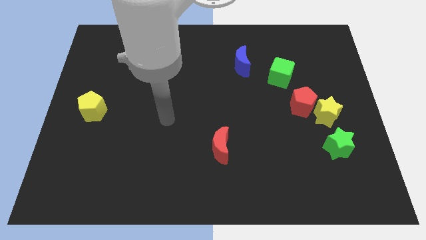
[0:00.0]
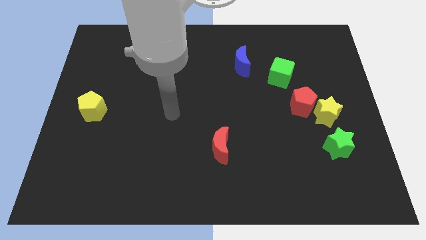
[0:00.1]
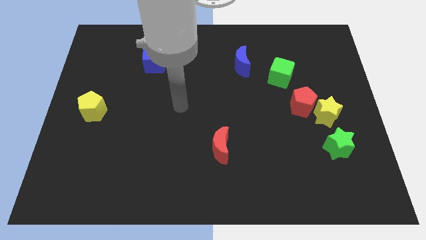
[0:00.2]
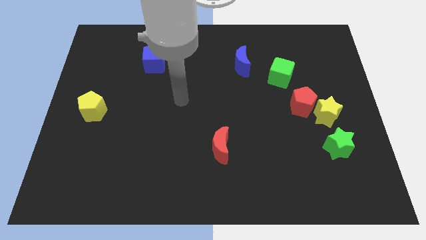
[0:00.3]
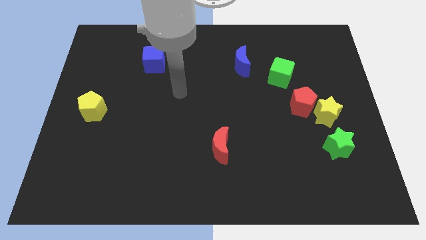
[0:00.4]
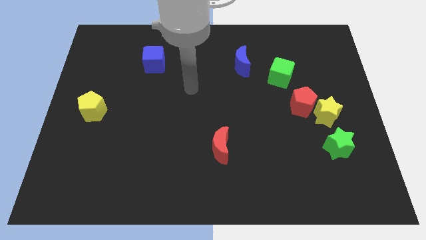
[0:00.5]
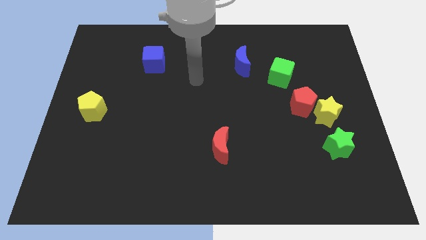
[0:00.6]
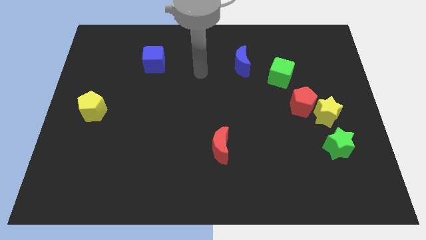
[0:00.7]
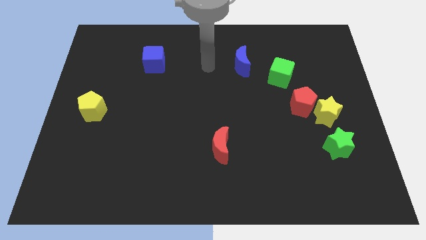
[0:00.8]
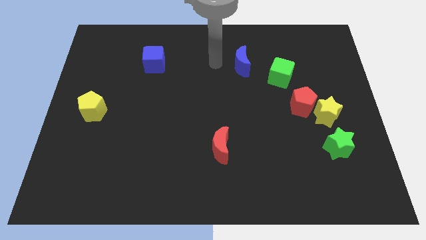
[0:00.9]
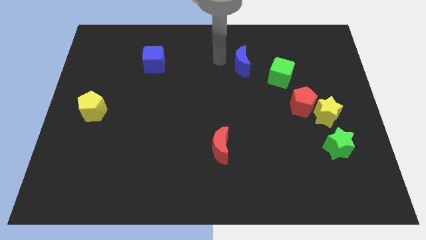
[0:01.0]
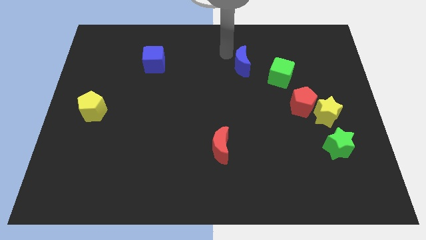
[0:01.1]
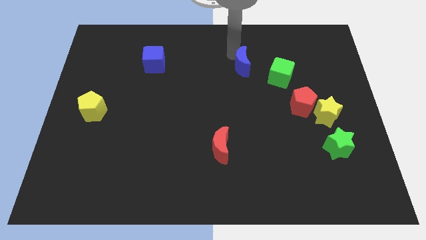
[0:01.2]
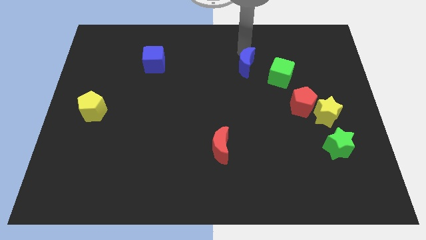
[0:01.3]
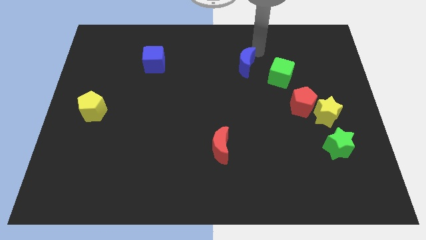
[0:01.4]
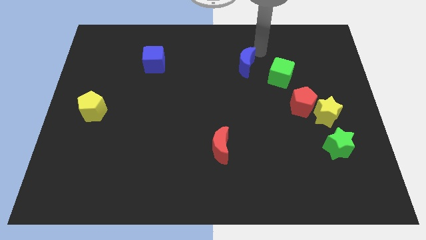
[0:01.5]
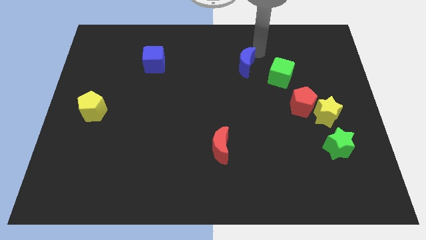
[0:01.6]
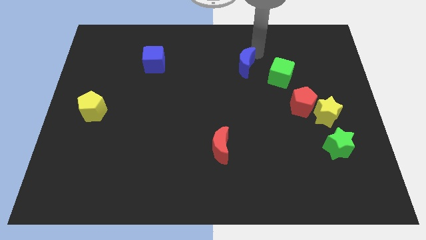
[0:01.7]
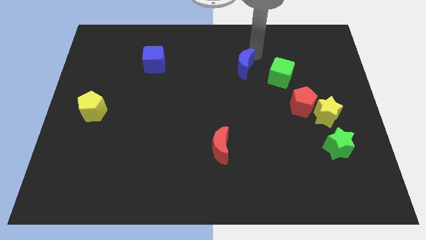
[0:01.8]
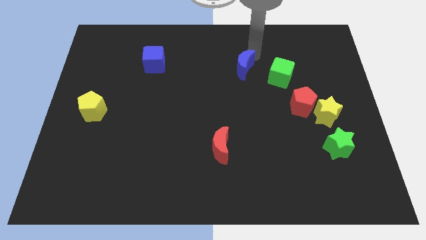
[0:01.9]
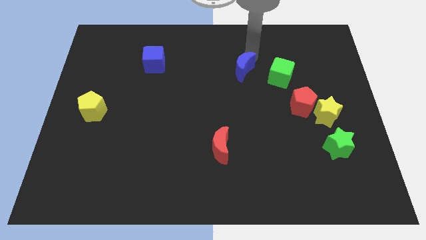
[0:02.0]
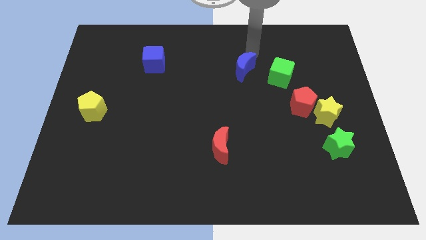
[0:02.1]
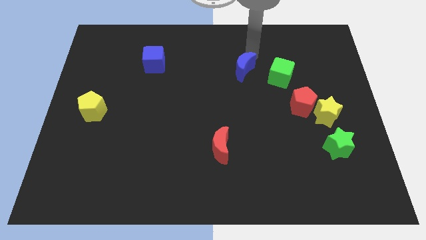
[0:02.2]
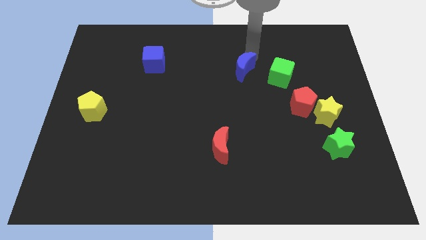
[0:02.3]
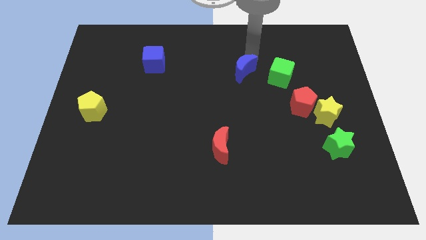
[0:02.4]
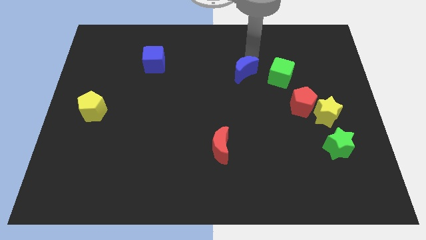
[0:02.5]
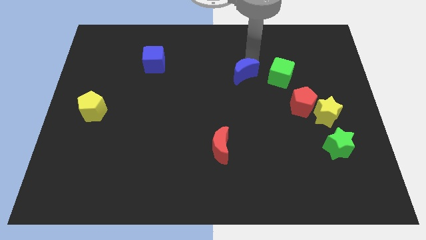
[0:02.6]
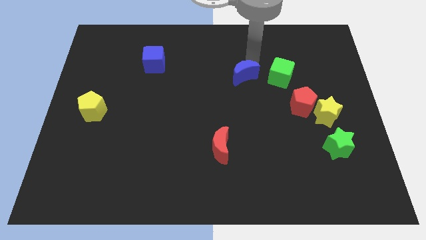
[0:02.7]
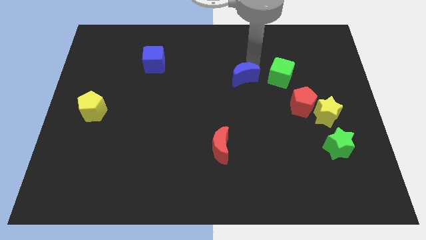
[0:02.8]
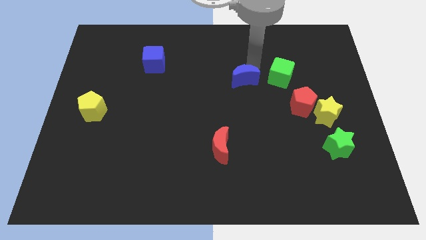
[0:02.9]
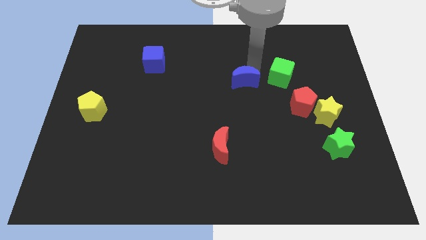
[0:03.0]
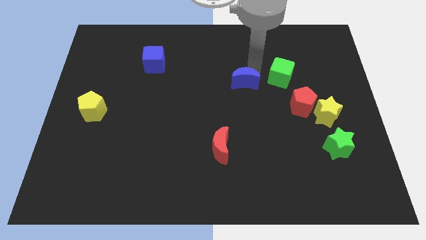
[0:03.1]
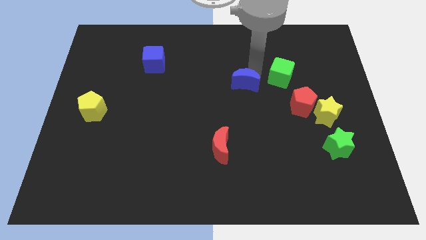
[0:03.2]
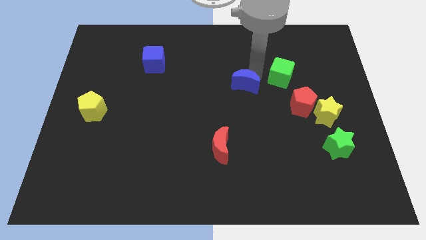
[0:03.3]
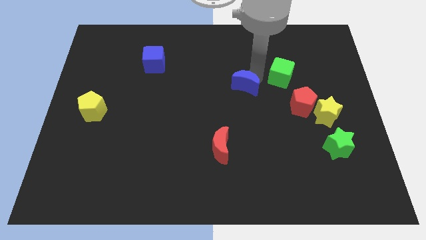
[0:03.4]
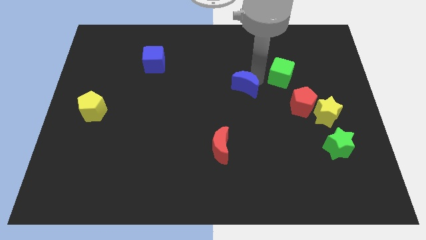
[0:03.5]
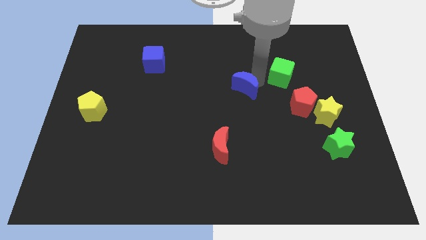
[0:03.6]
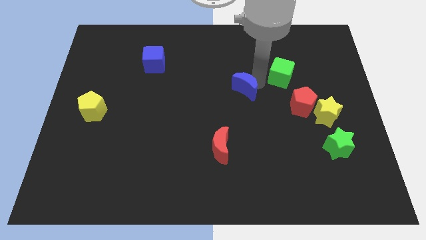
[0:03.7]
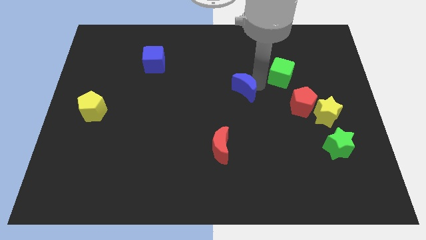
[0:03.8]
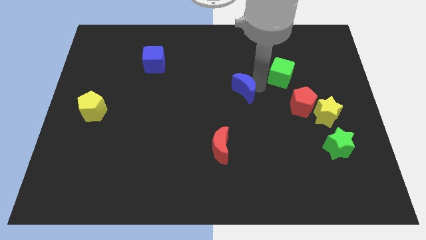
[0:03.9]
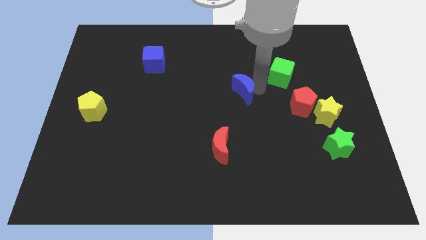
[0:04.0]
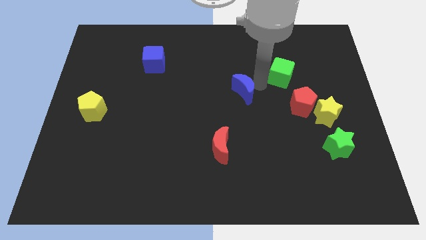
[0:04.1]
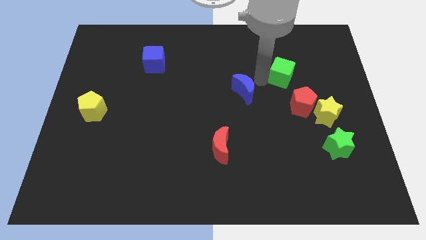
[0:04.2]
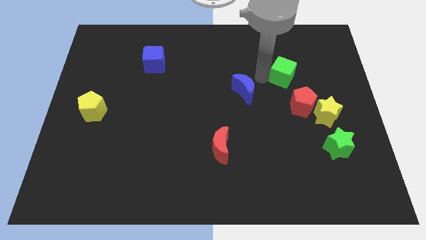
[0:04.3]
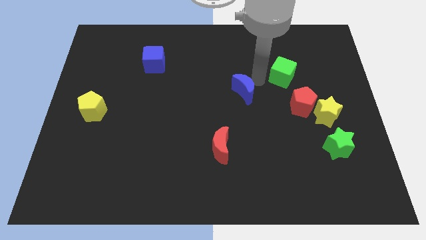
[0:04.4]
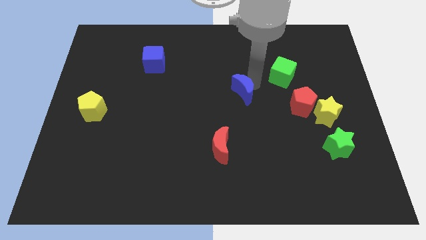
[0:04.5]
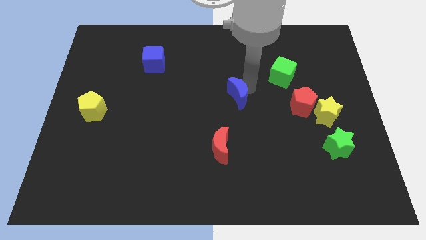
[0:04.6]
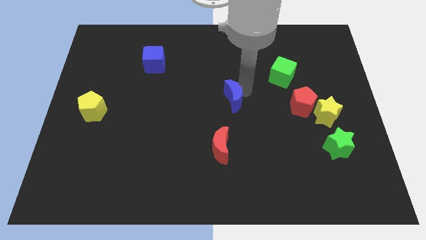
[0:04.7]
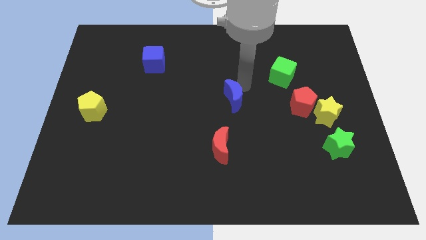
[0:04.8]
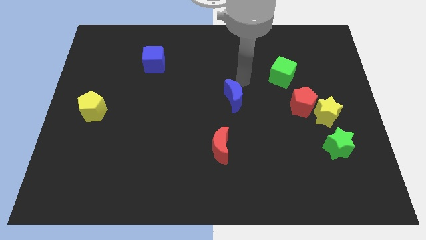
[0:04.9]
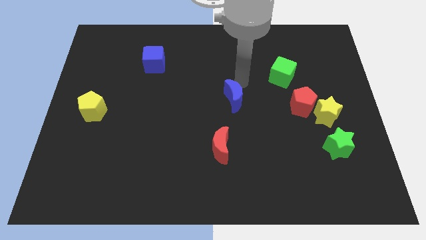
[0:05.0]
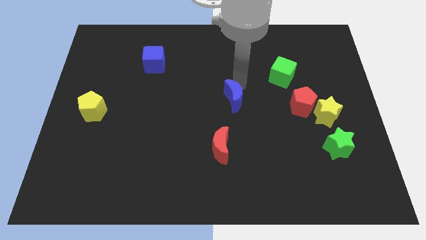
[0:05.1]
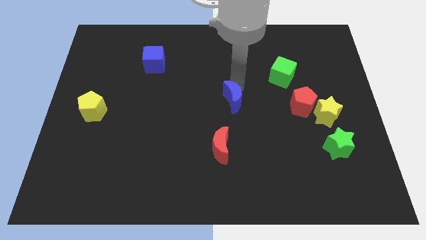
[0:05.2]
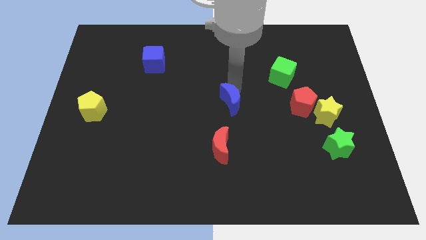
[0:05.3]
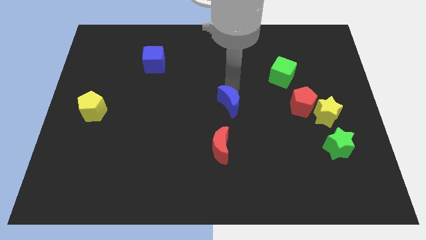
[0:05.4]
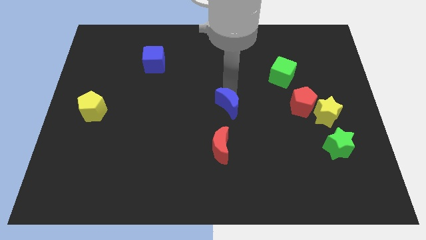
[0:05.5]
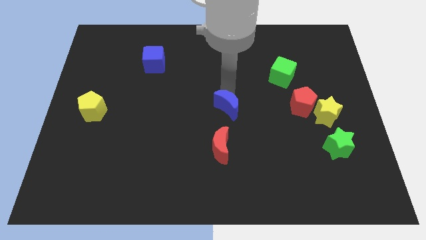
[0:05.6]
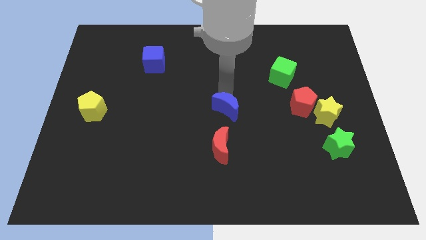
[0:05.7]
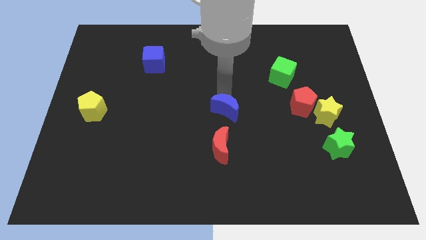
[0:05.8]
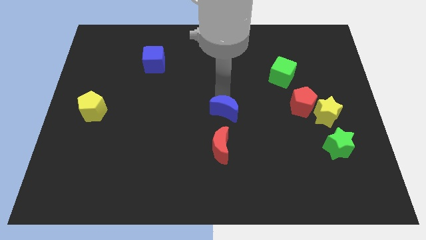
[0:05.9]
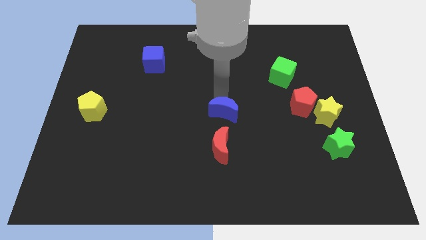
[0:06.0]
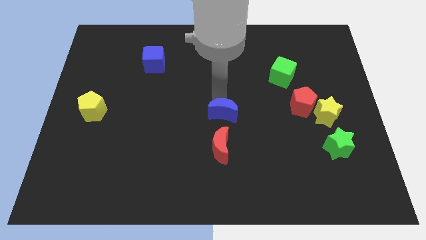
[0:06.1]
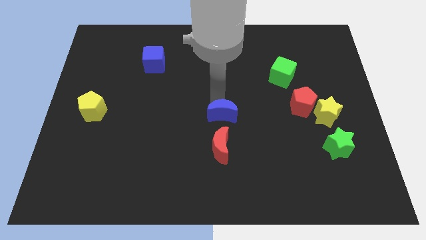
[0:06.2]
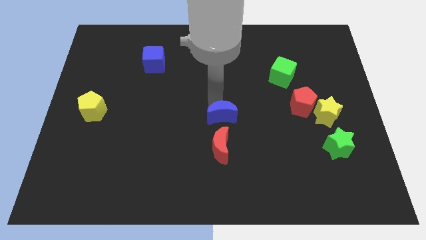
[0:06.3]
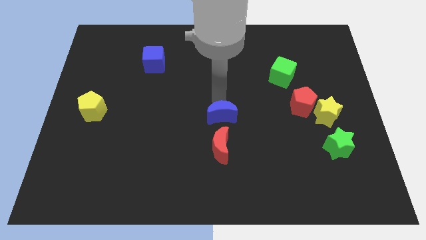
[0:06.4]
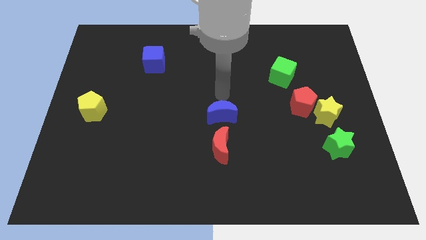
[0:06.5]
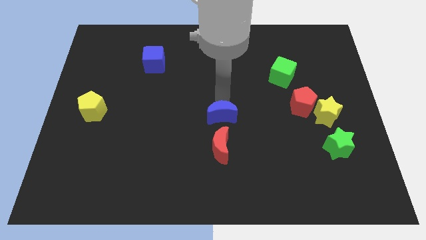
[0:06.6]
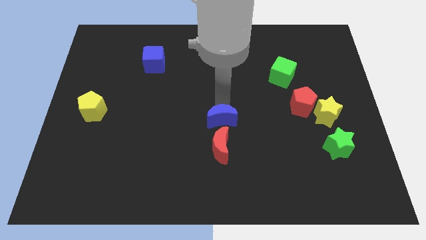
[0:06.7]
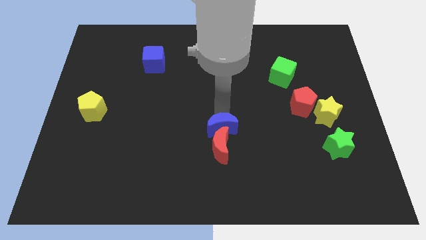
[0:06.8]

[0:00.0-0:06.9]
slide the blue moon close to the red moon
